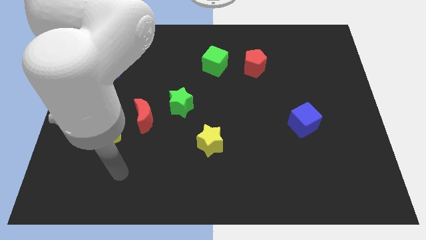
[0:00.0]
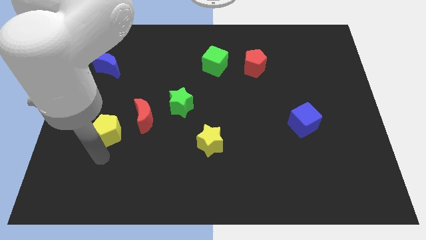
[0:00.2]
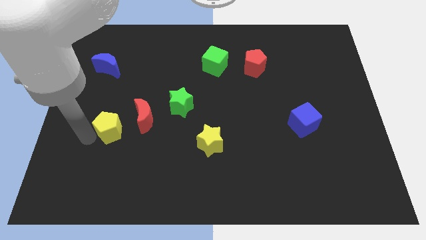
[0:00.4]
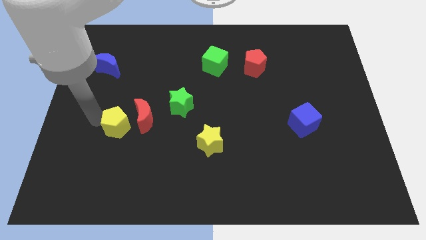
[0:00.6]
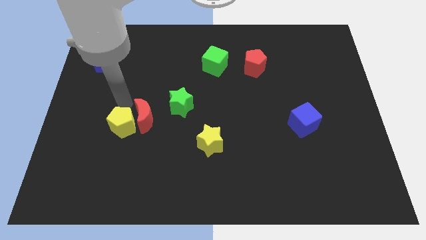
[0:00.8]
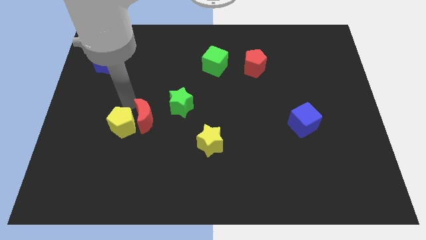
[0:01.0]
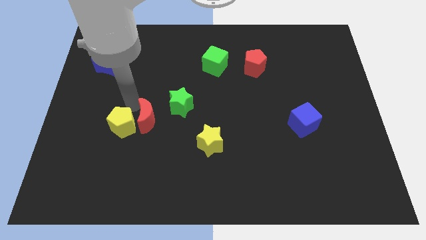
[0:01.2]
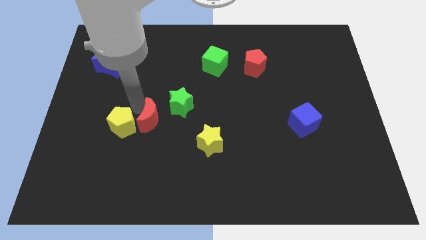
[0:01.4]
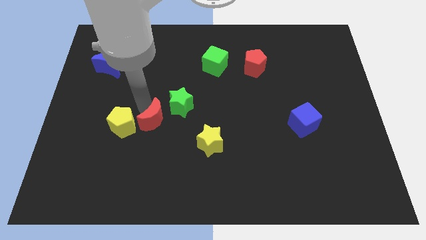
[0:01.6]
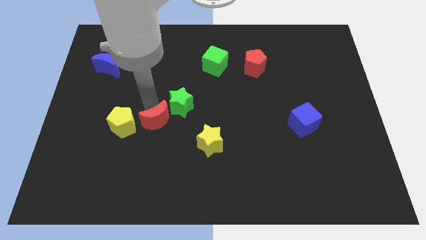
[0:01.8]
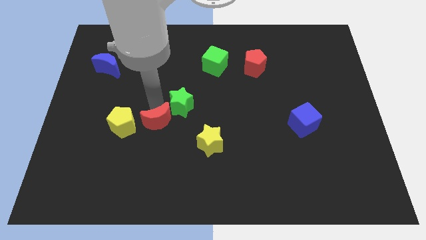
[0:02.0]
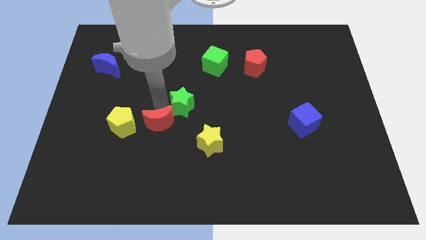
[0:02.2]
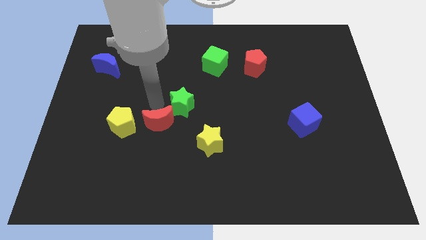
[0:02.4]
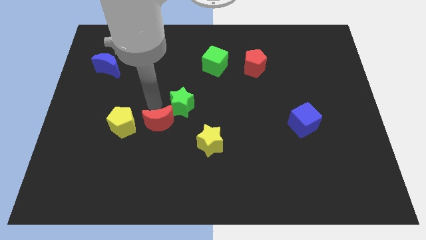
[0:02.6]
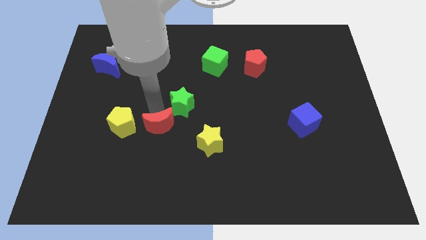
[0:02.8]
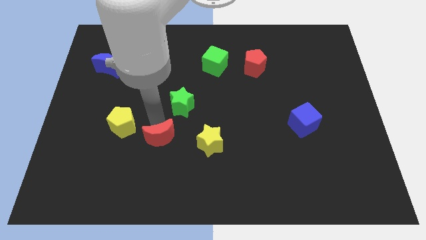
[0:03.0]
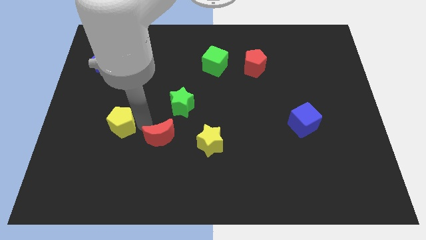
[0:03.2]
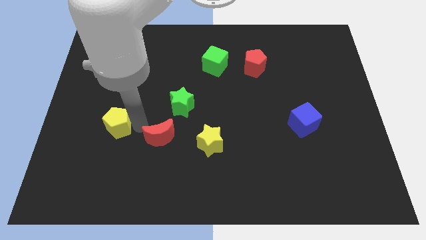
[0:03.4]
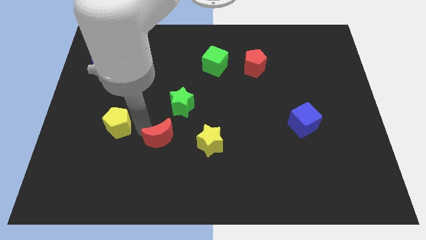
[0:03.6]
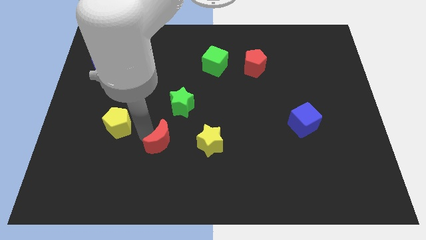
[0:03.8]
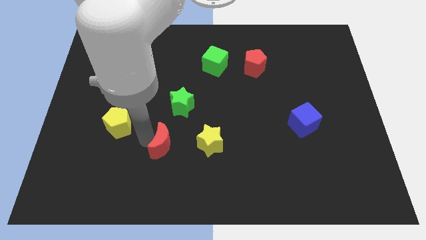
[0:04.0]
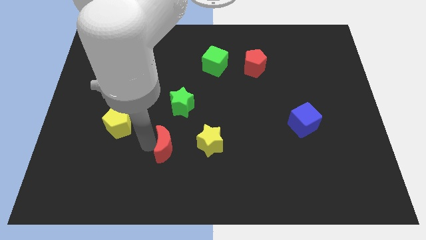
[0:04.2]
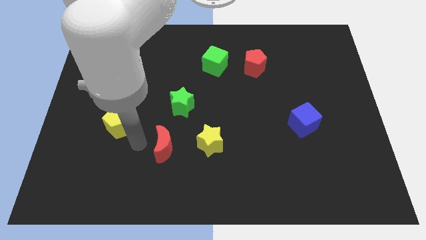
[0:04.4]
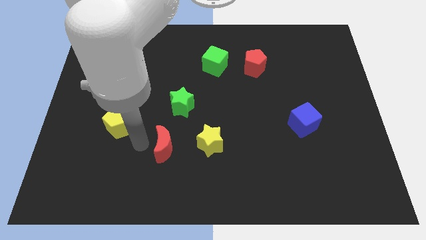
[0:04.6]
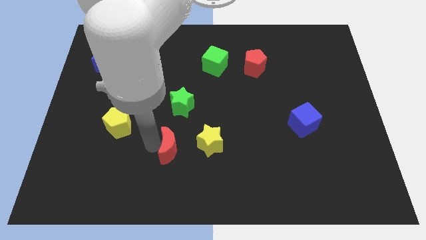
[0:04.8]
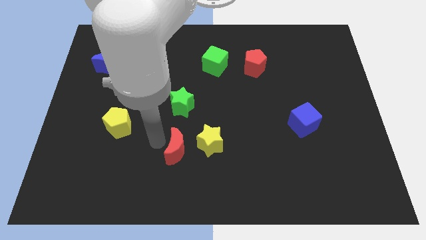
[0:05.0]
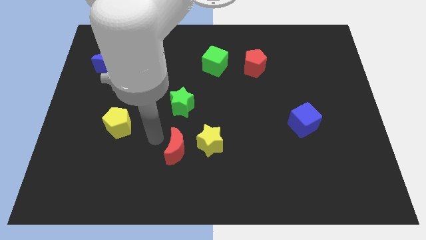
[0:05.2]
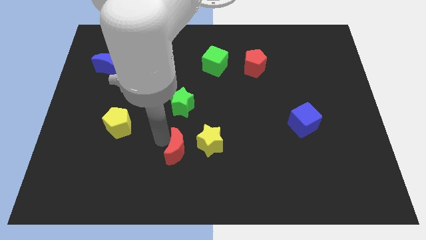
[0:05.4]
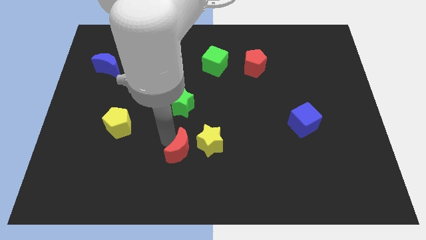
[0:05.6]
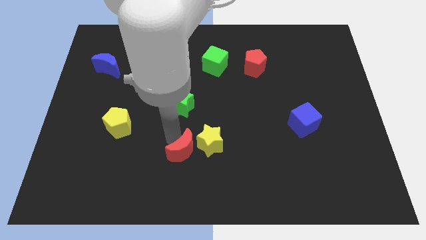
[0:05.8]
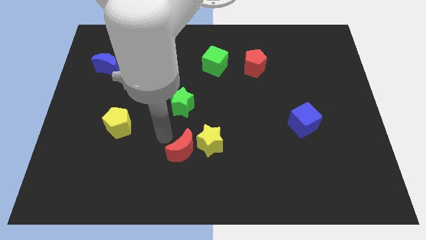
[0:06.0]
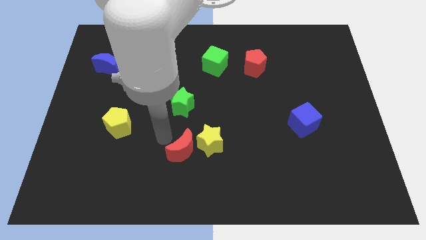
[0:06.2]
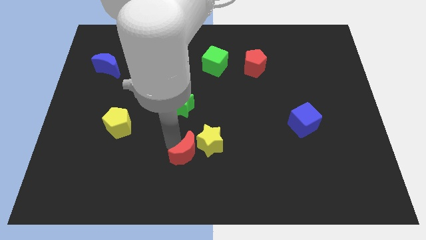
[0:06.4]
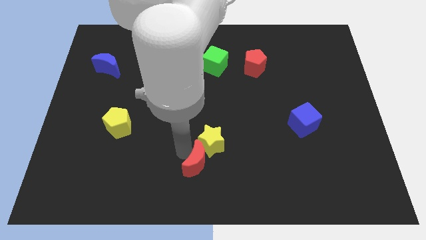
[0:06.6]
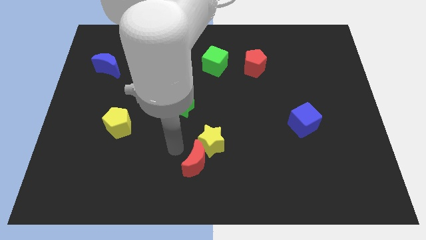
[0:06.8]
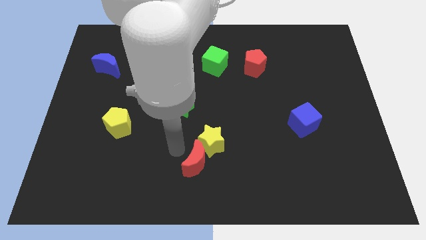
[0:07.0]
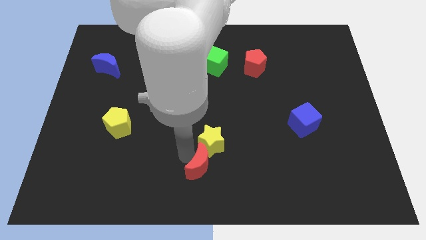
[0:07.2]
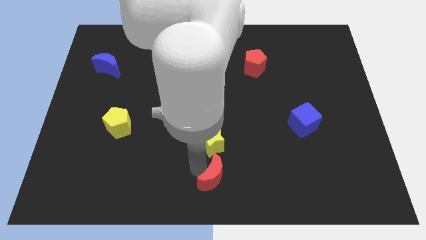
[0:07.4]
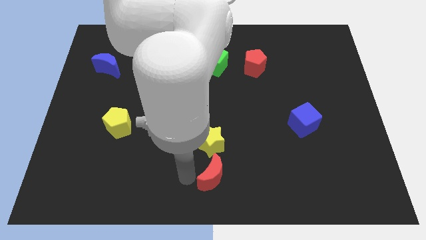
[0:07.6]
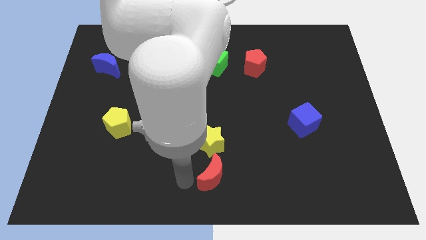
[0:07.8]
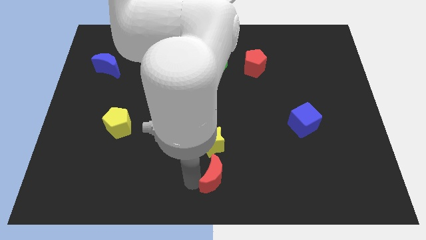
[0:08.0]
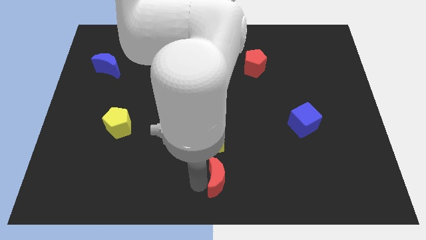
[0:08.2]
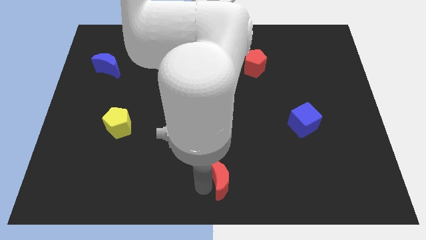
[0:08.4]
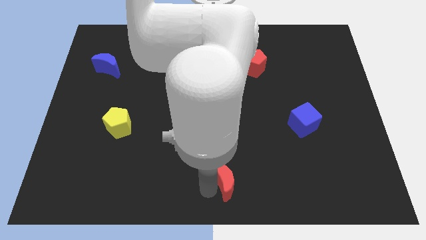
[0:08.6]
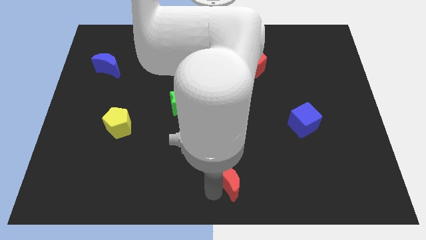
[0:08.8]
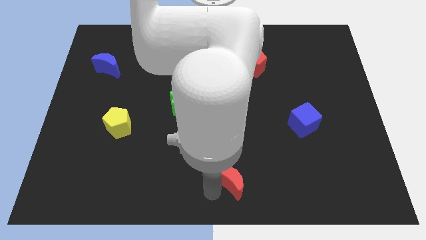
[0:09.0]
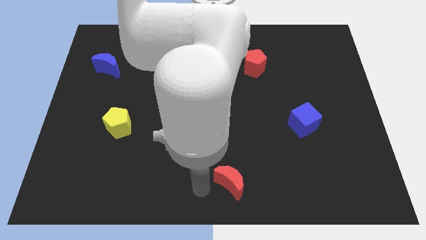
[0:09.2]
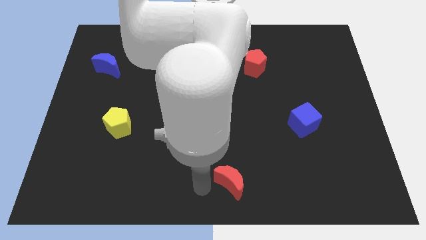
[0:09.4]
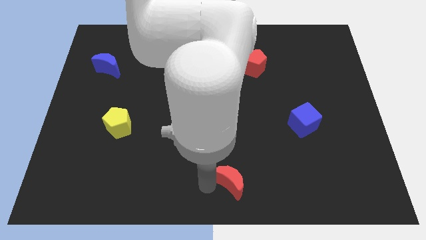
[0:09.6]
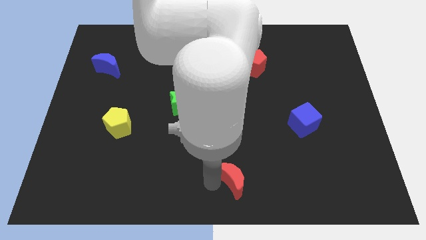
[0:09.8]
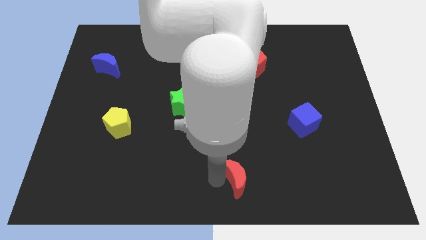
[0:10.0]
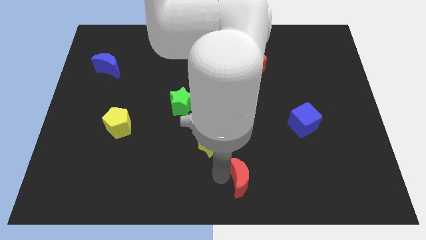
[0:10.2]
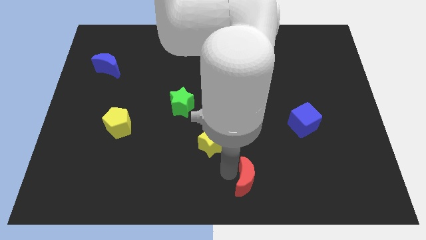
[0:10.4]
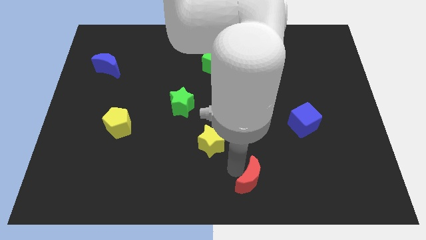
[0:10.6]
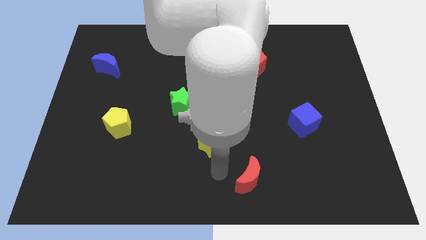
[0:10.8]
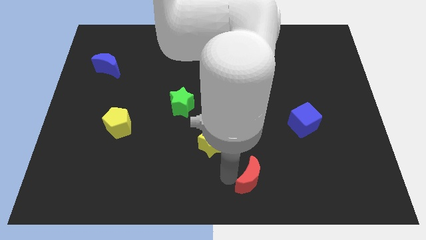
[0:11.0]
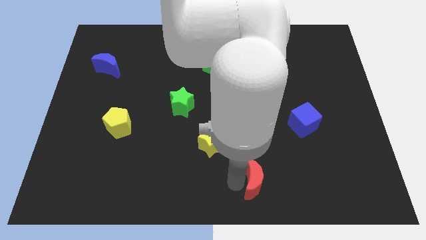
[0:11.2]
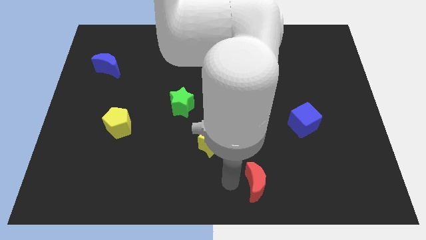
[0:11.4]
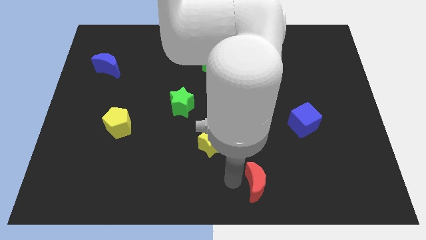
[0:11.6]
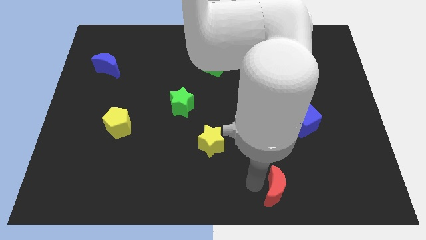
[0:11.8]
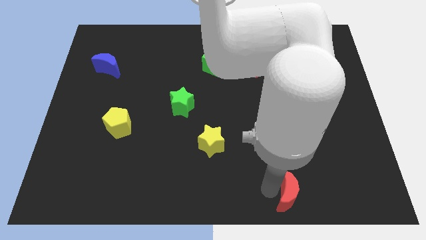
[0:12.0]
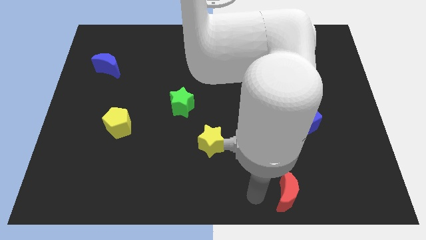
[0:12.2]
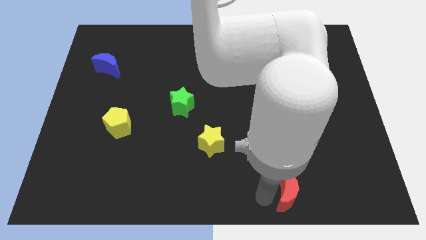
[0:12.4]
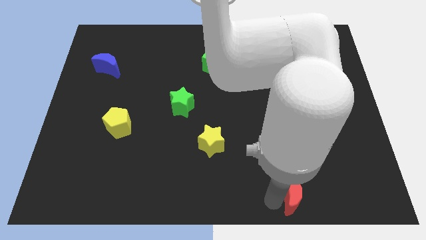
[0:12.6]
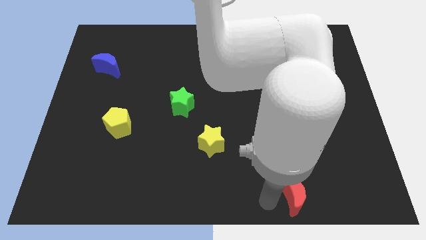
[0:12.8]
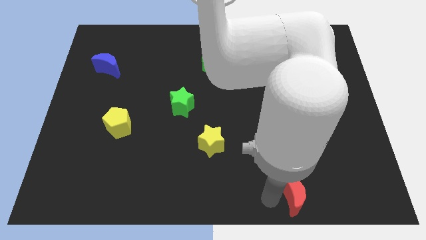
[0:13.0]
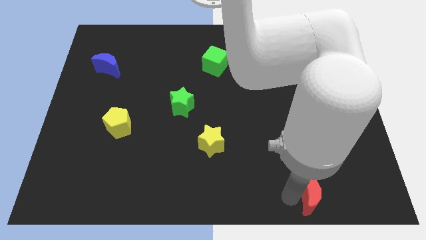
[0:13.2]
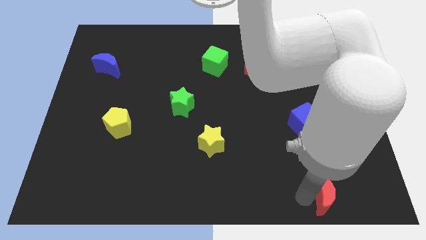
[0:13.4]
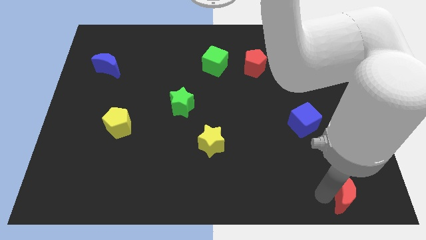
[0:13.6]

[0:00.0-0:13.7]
move the red moon to the bottom right corner

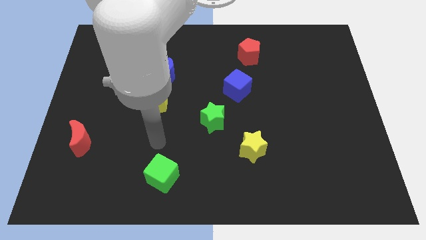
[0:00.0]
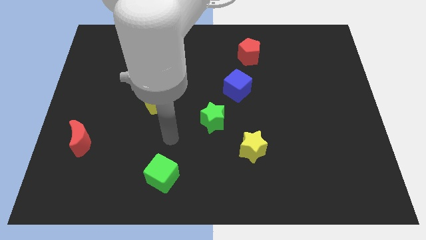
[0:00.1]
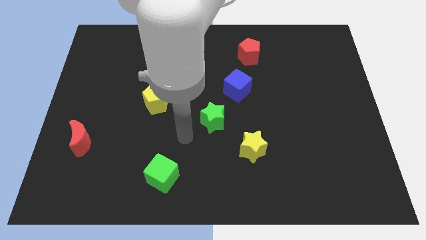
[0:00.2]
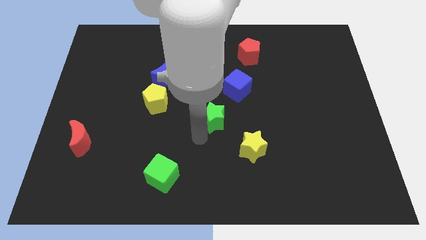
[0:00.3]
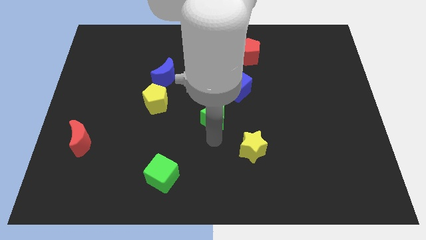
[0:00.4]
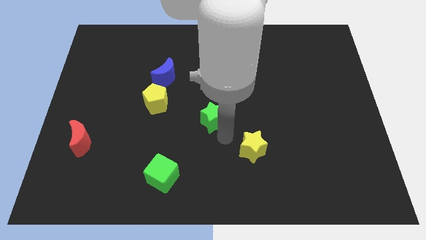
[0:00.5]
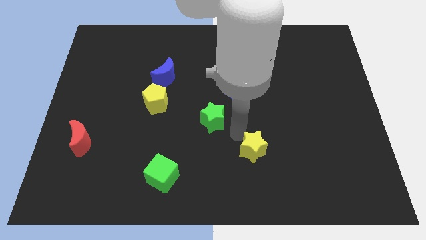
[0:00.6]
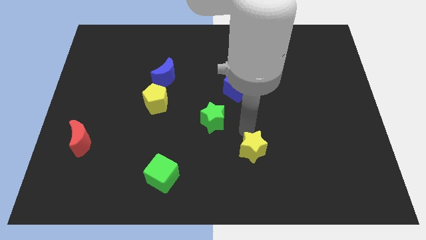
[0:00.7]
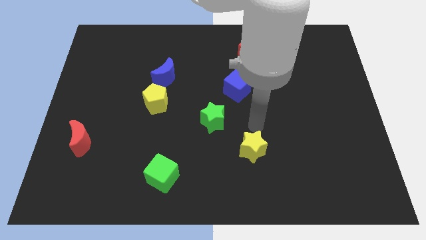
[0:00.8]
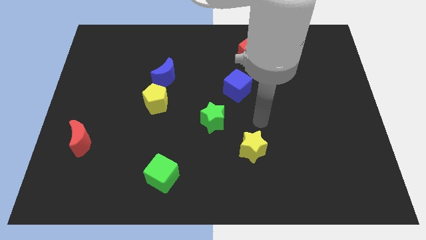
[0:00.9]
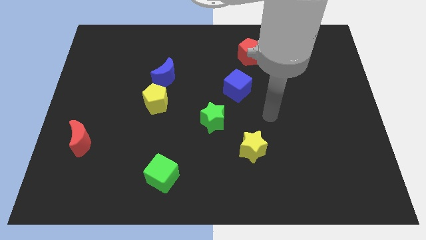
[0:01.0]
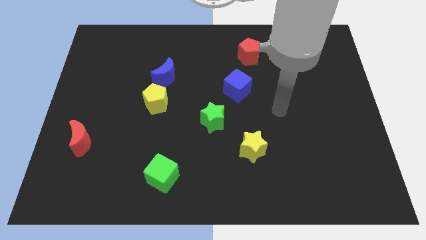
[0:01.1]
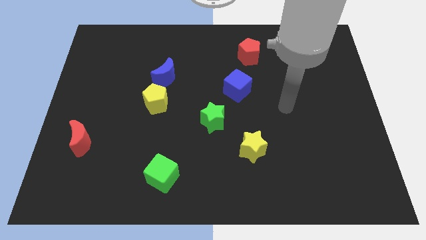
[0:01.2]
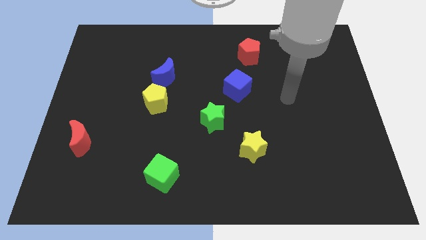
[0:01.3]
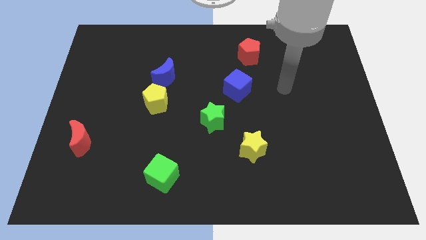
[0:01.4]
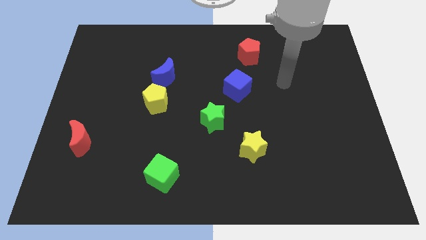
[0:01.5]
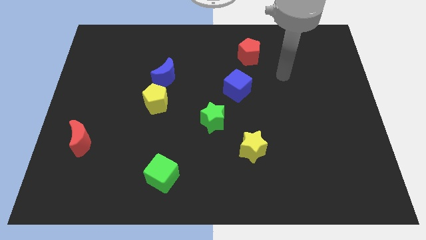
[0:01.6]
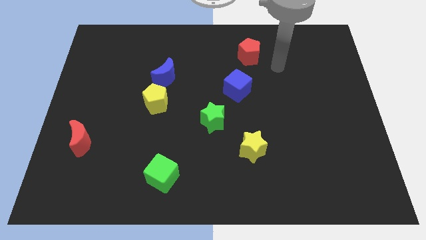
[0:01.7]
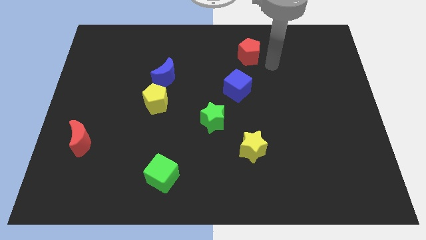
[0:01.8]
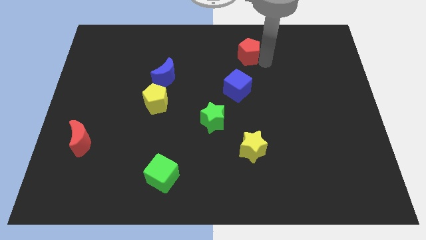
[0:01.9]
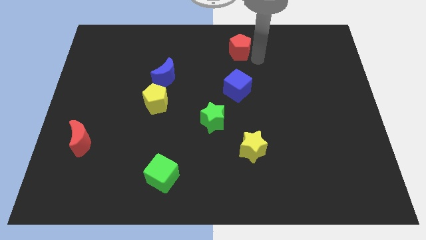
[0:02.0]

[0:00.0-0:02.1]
push the red pentagon to the top
